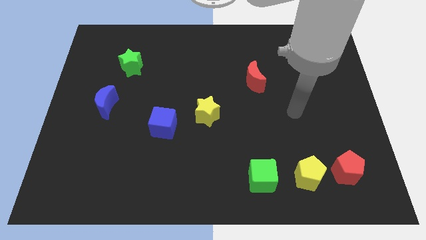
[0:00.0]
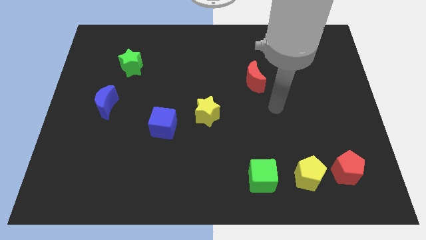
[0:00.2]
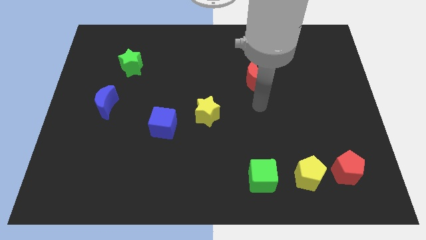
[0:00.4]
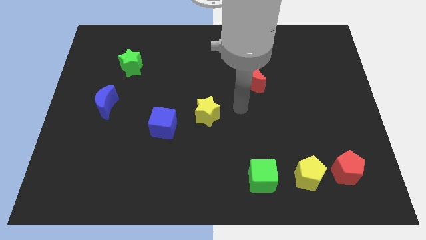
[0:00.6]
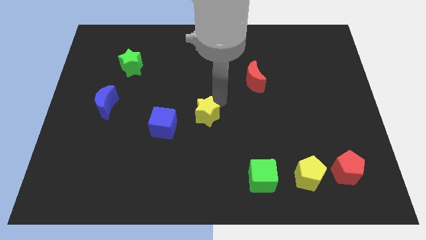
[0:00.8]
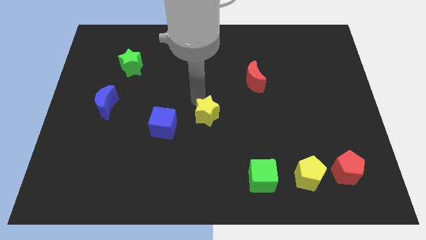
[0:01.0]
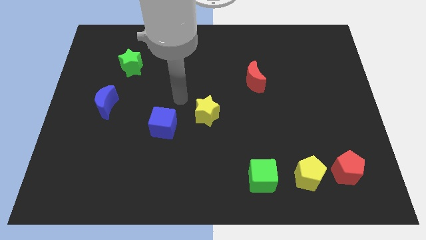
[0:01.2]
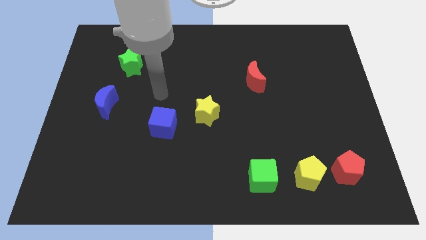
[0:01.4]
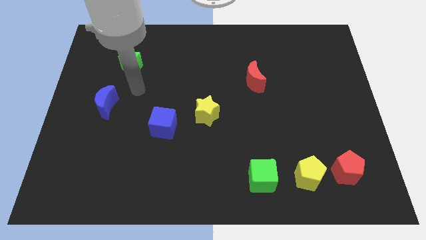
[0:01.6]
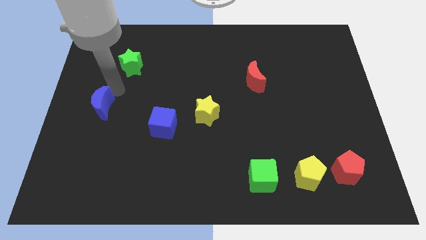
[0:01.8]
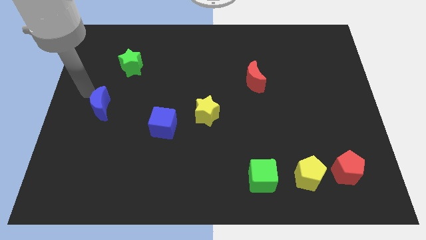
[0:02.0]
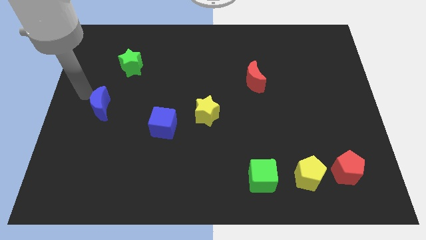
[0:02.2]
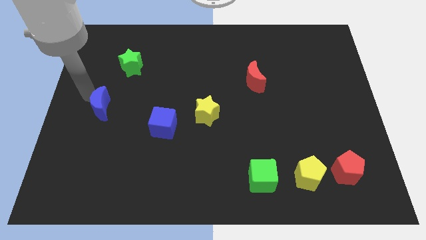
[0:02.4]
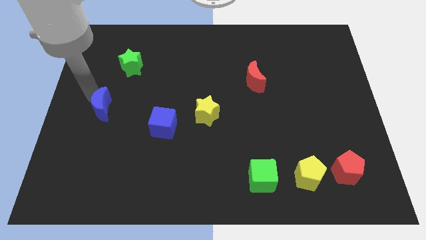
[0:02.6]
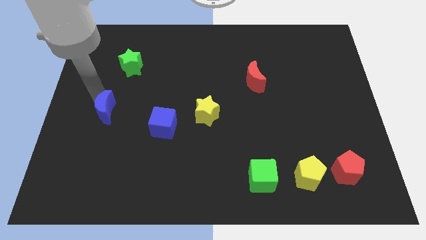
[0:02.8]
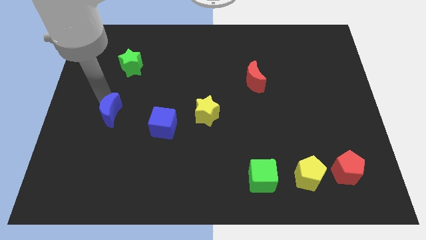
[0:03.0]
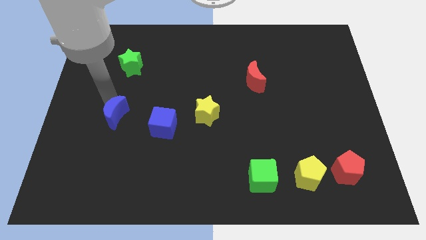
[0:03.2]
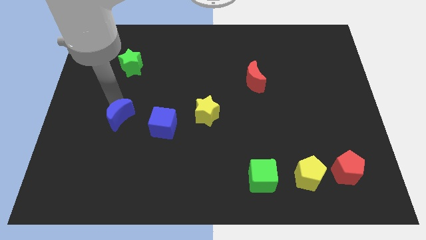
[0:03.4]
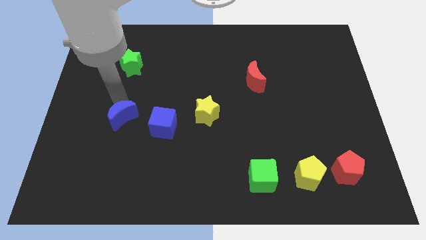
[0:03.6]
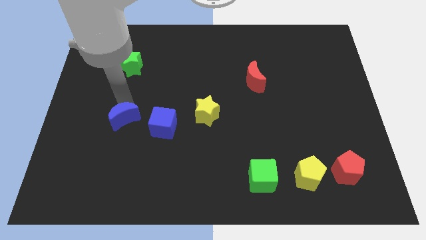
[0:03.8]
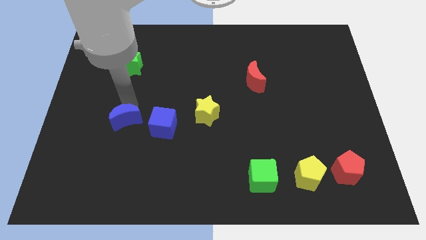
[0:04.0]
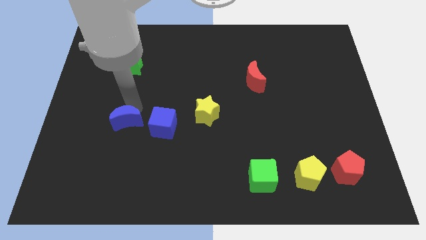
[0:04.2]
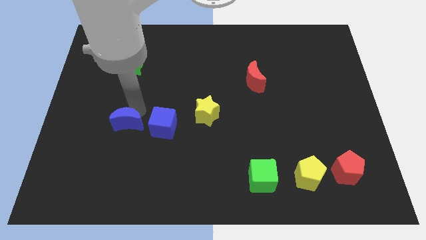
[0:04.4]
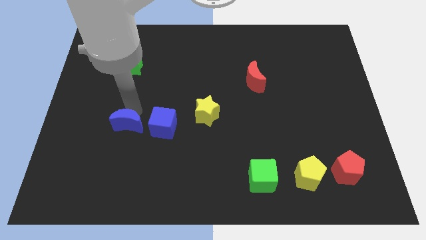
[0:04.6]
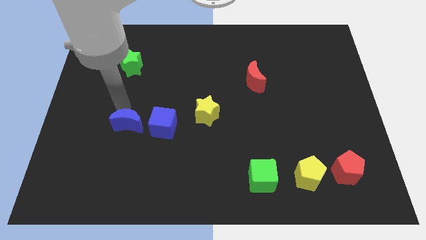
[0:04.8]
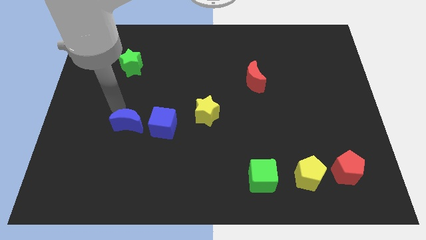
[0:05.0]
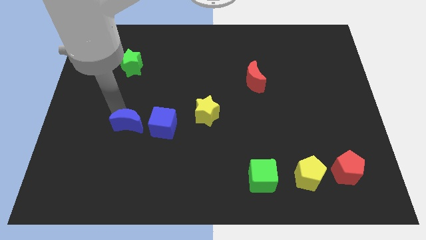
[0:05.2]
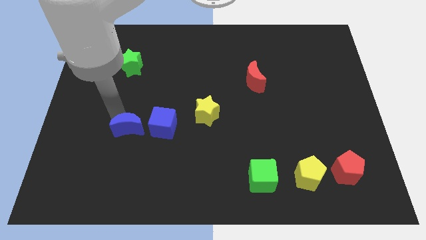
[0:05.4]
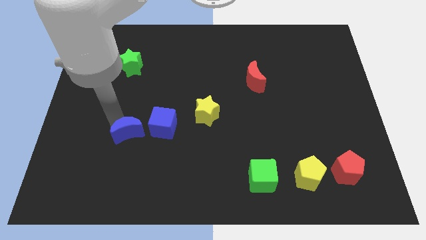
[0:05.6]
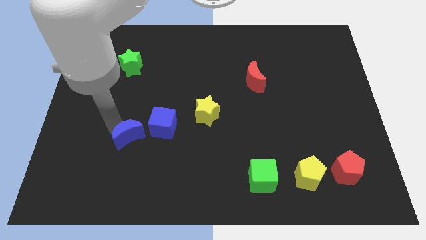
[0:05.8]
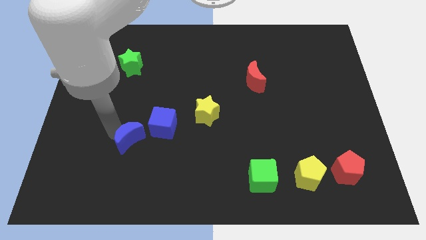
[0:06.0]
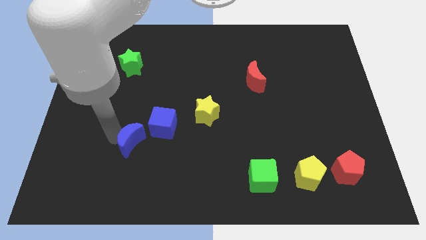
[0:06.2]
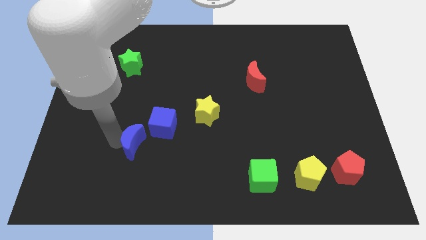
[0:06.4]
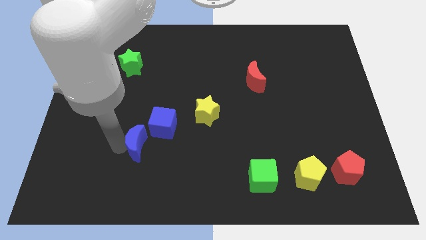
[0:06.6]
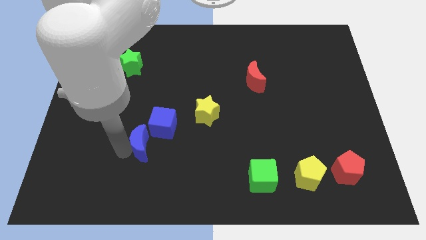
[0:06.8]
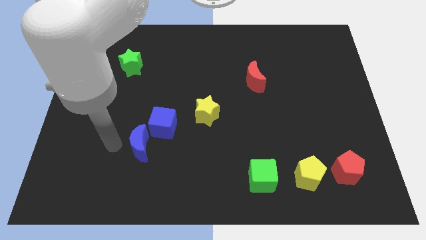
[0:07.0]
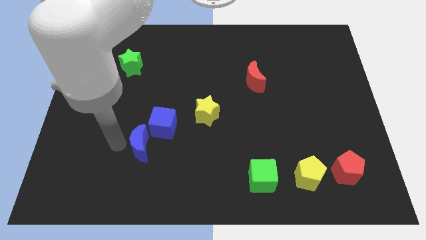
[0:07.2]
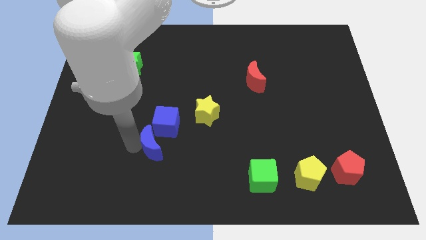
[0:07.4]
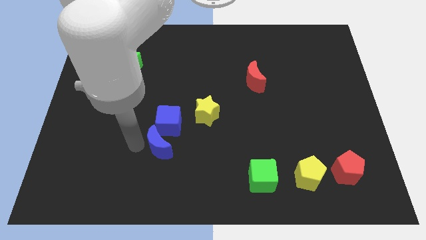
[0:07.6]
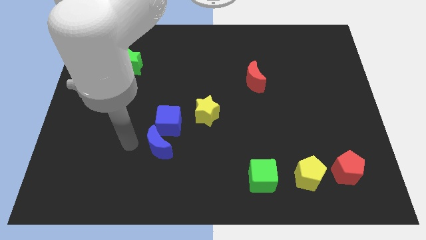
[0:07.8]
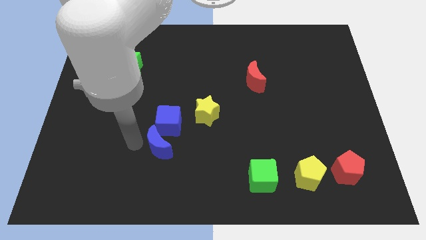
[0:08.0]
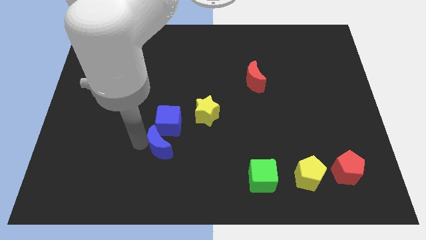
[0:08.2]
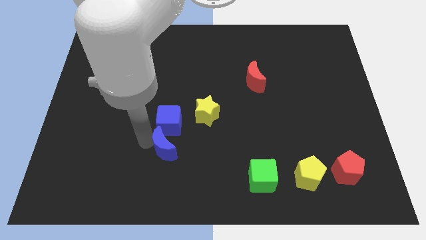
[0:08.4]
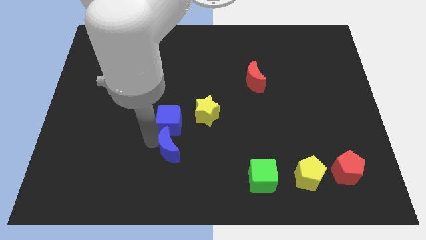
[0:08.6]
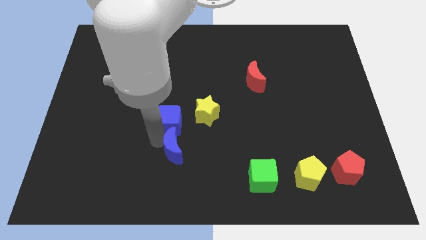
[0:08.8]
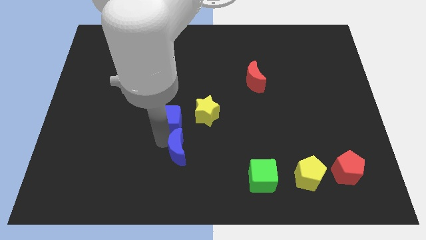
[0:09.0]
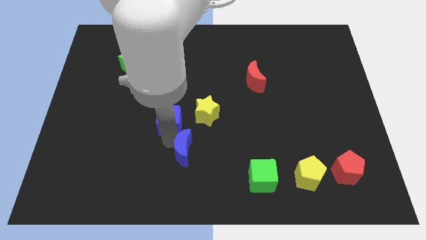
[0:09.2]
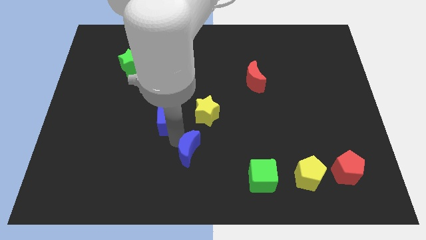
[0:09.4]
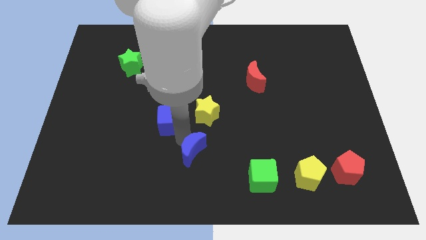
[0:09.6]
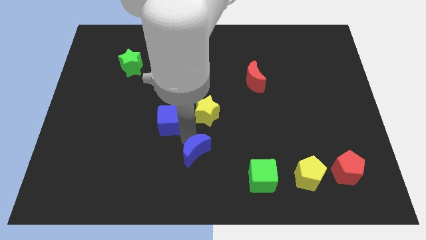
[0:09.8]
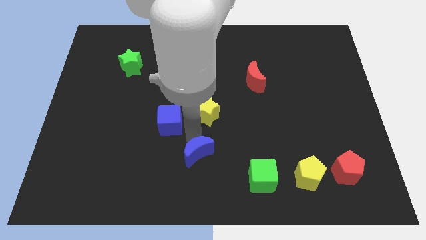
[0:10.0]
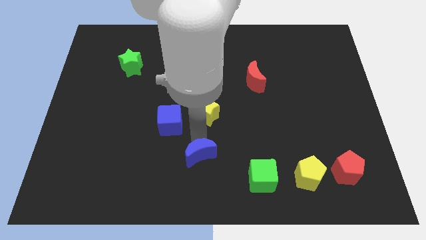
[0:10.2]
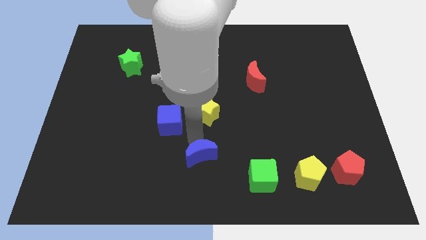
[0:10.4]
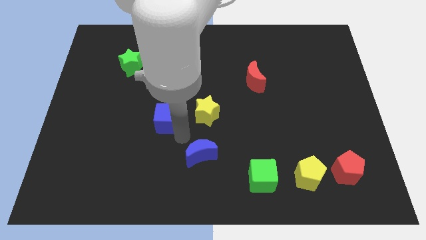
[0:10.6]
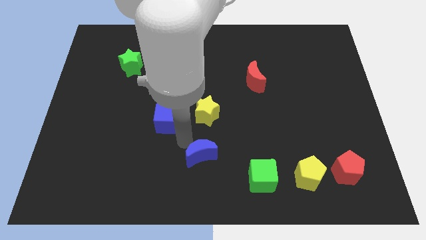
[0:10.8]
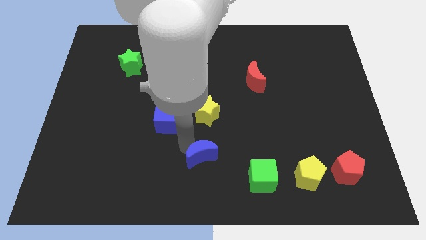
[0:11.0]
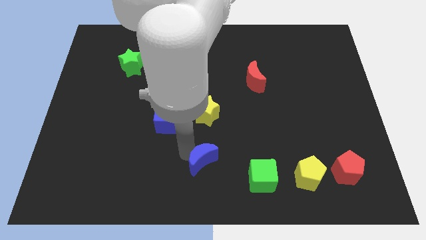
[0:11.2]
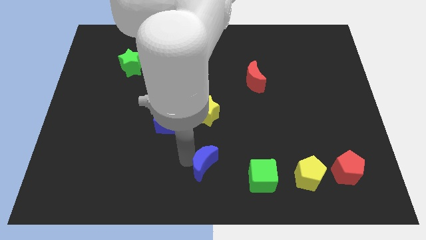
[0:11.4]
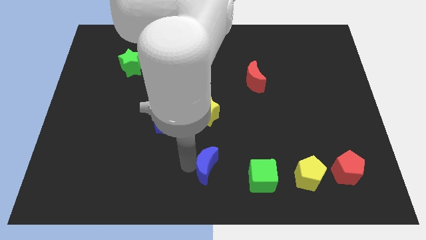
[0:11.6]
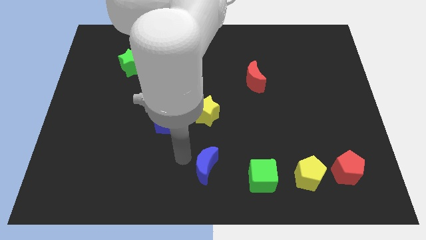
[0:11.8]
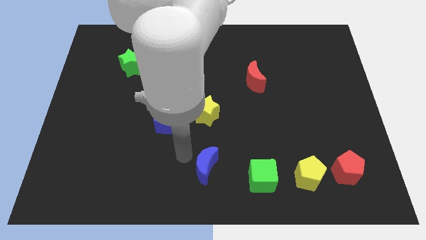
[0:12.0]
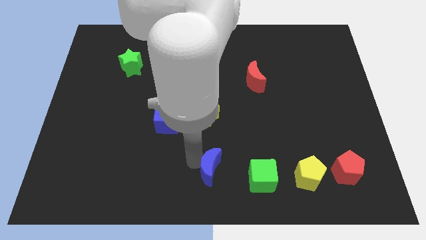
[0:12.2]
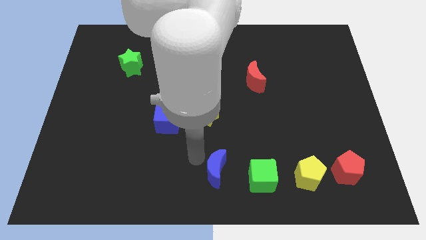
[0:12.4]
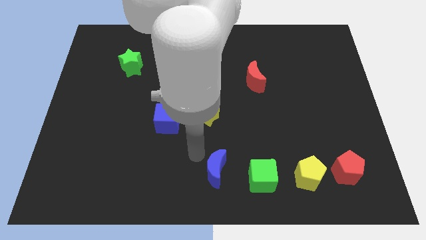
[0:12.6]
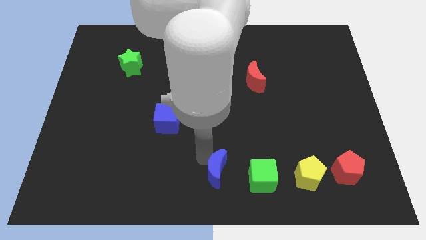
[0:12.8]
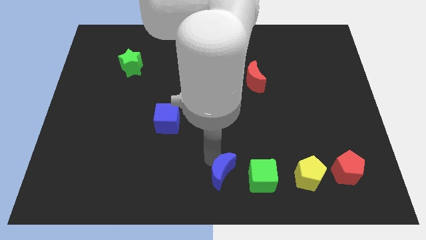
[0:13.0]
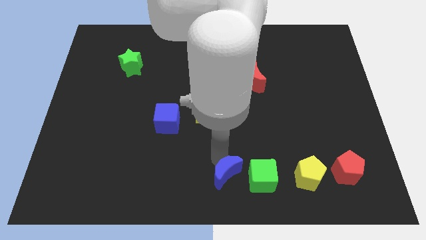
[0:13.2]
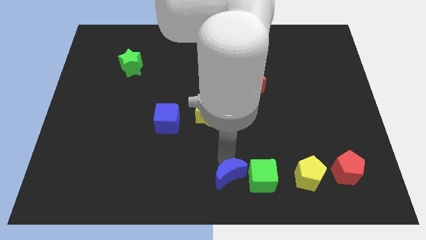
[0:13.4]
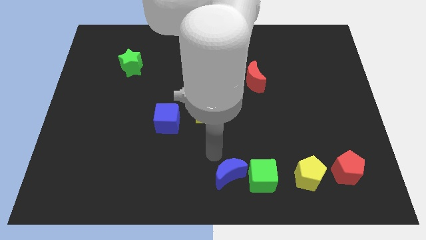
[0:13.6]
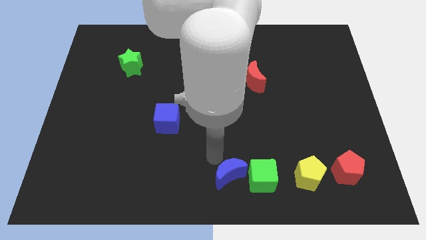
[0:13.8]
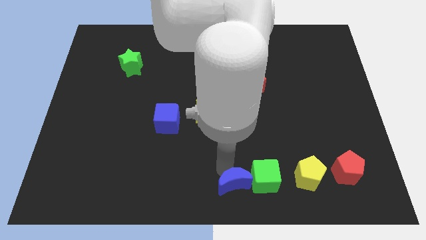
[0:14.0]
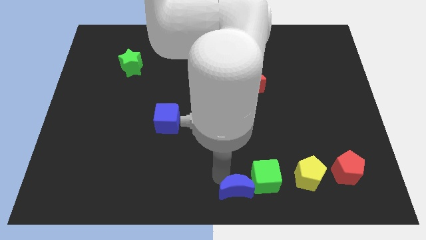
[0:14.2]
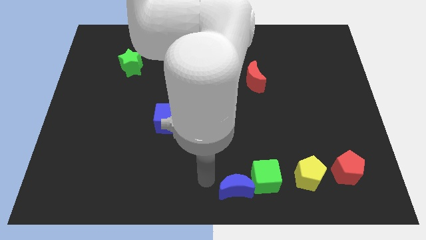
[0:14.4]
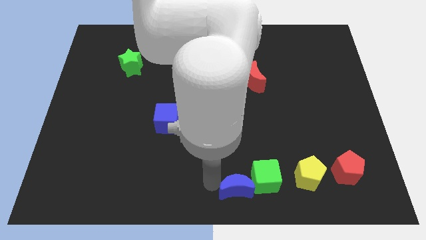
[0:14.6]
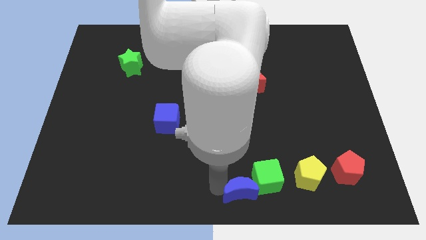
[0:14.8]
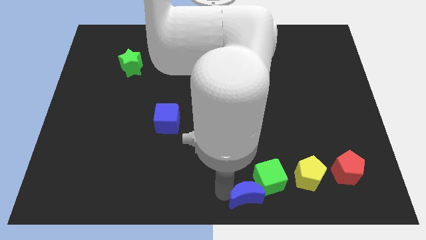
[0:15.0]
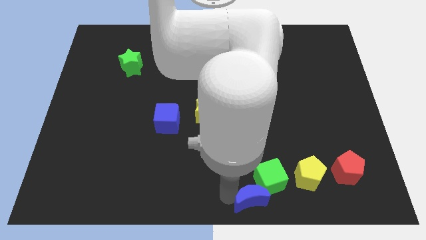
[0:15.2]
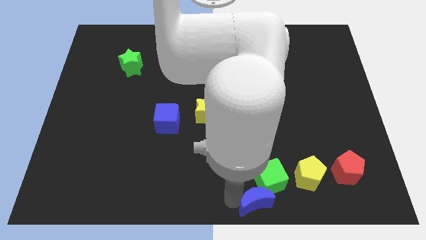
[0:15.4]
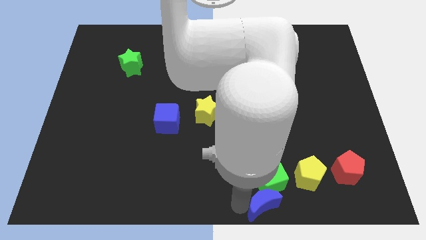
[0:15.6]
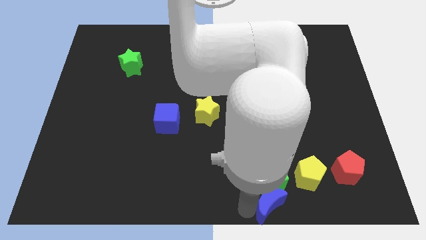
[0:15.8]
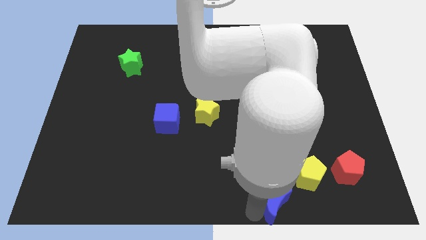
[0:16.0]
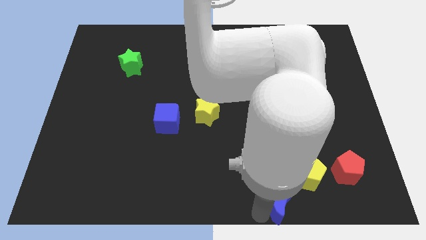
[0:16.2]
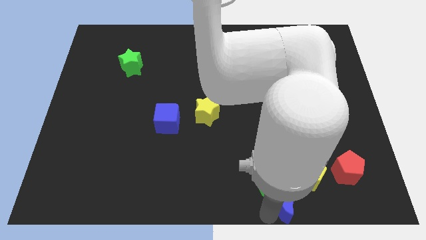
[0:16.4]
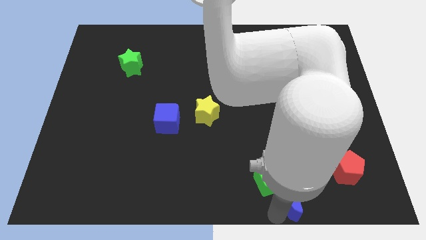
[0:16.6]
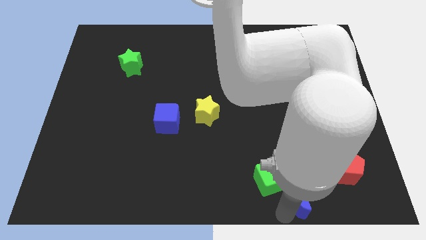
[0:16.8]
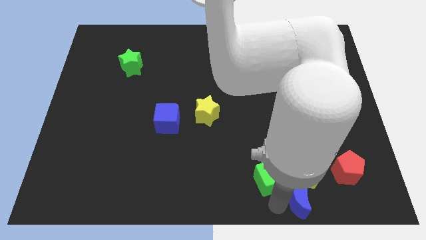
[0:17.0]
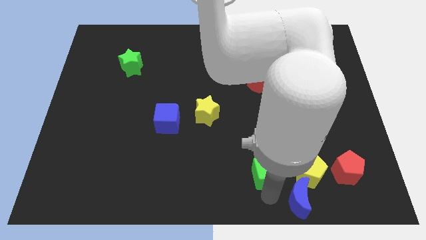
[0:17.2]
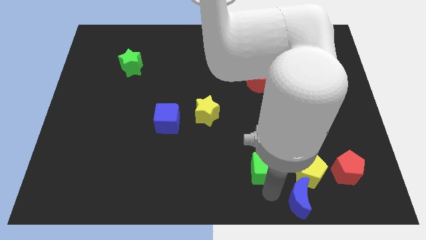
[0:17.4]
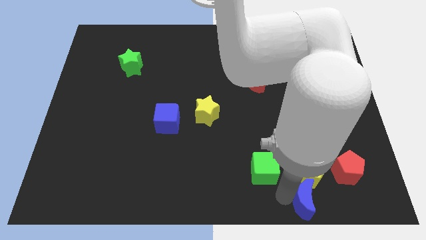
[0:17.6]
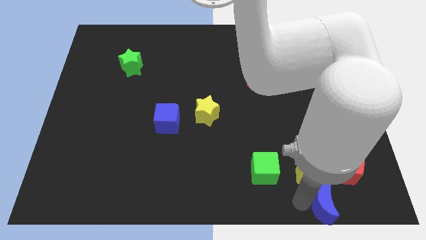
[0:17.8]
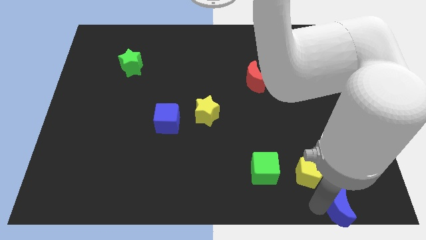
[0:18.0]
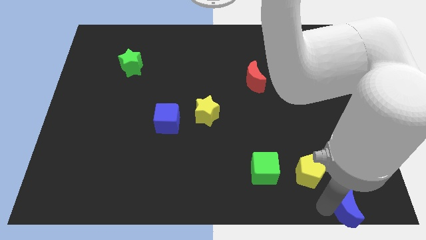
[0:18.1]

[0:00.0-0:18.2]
slide the blue moon to the lower right corner
